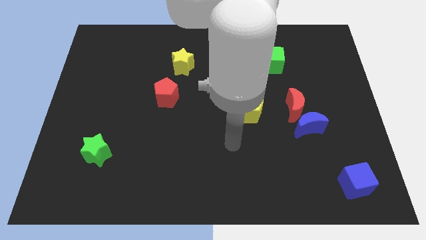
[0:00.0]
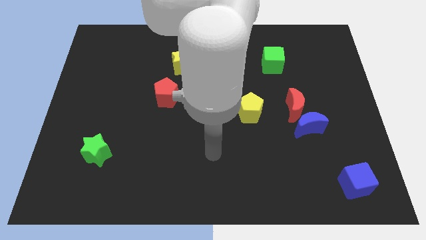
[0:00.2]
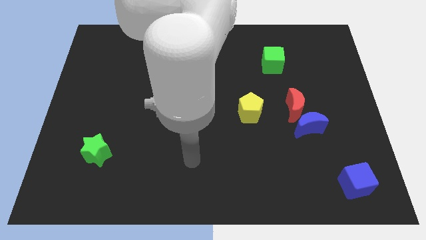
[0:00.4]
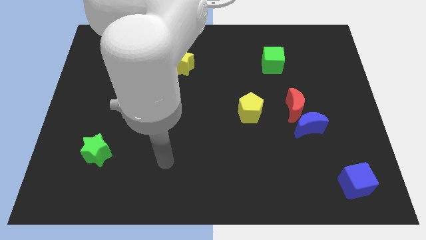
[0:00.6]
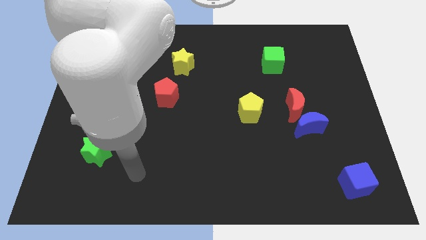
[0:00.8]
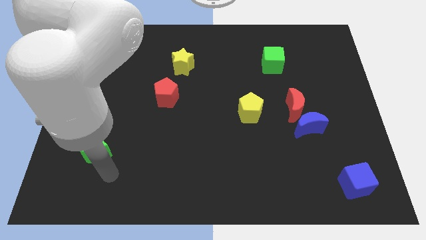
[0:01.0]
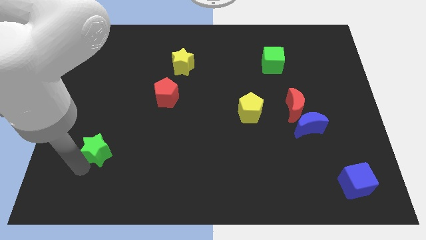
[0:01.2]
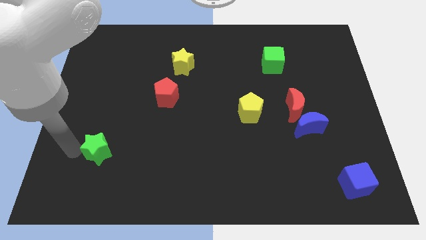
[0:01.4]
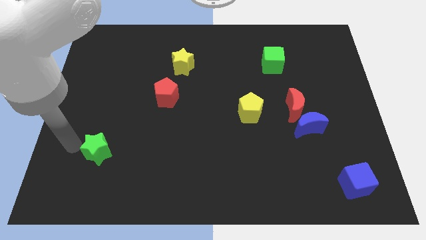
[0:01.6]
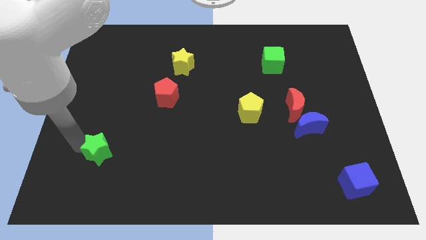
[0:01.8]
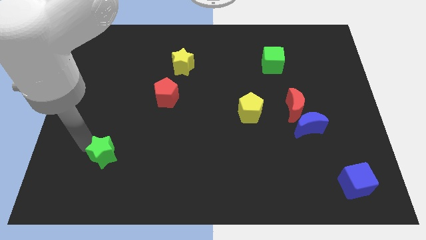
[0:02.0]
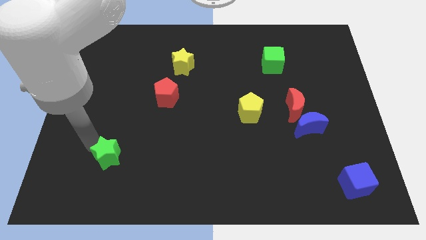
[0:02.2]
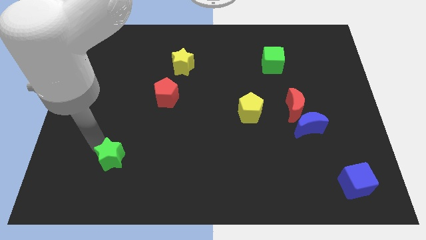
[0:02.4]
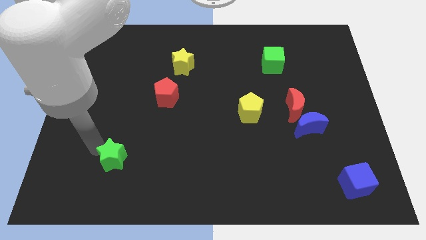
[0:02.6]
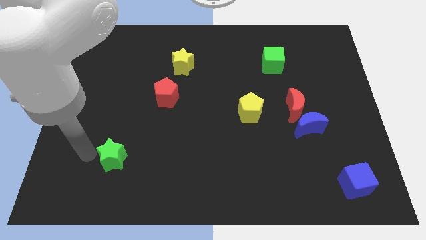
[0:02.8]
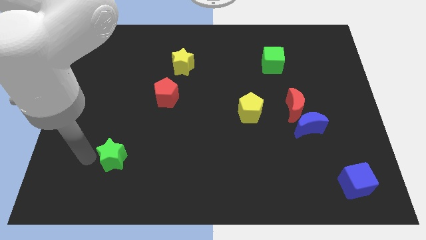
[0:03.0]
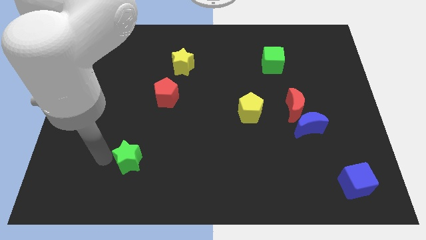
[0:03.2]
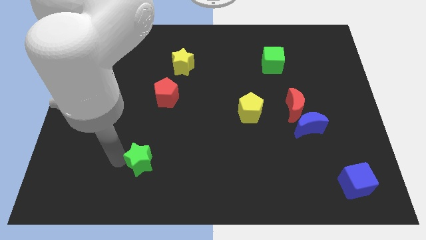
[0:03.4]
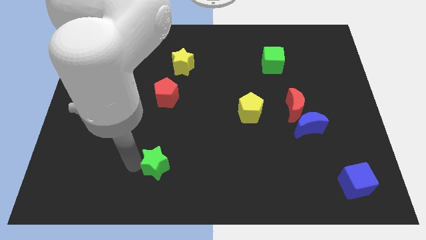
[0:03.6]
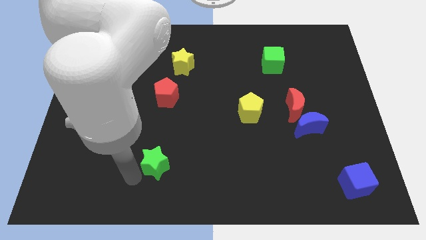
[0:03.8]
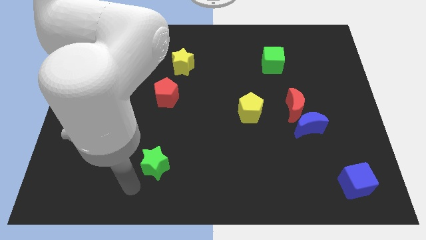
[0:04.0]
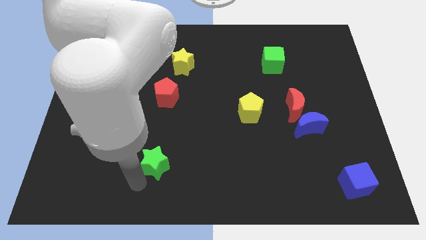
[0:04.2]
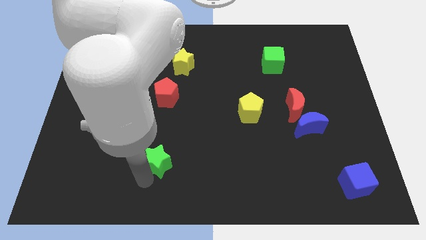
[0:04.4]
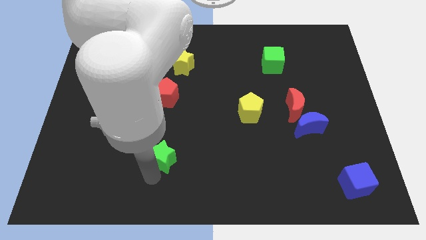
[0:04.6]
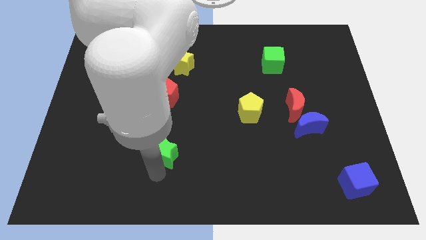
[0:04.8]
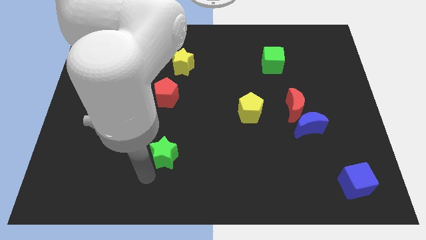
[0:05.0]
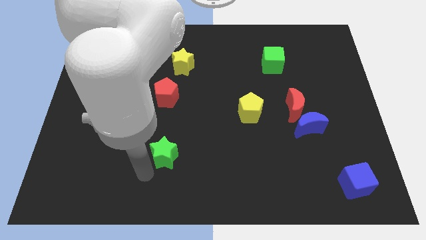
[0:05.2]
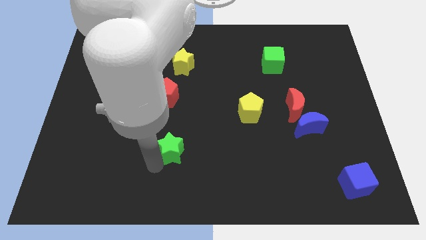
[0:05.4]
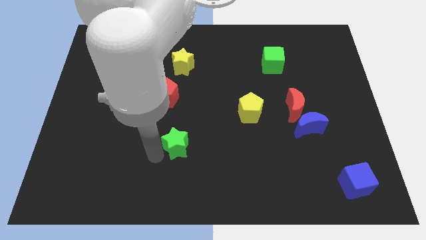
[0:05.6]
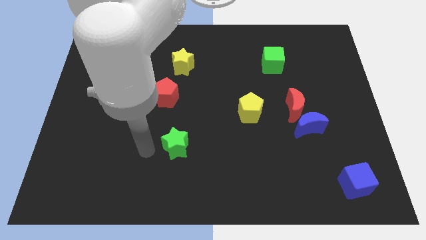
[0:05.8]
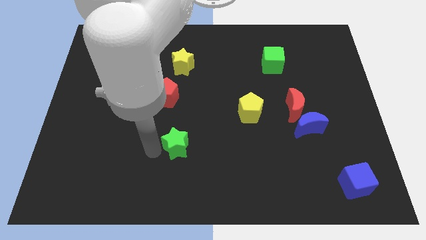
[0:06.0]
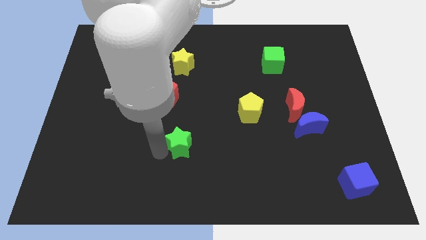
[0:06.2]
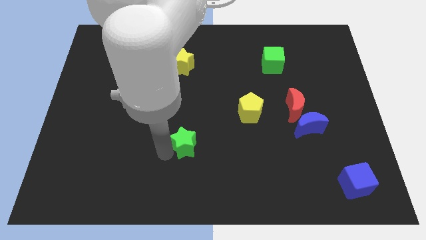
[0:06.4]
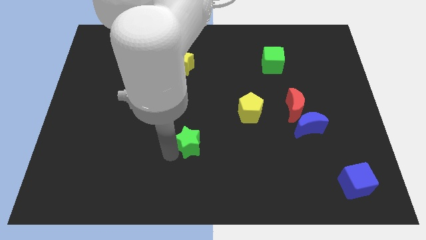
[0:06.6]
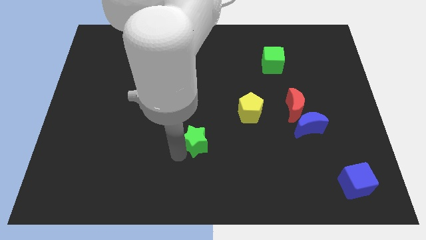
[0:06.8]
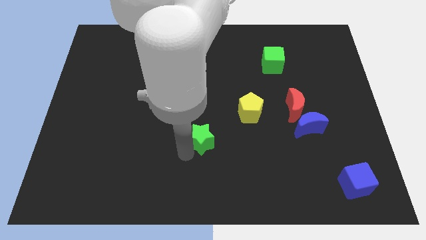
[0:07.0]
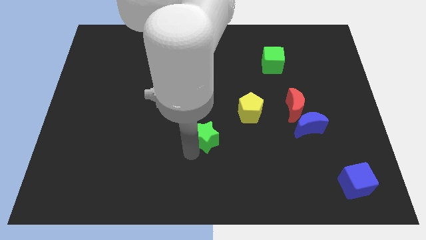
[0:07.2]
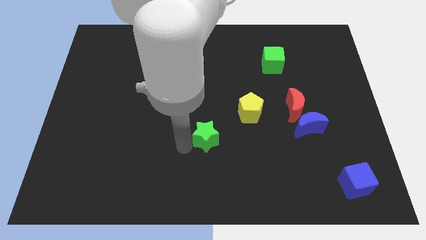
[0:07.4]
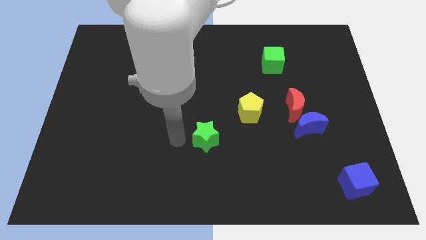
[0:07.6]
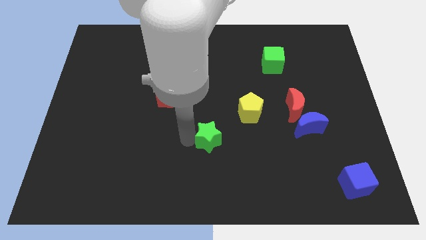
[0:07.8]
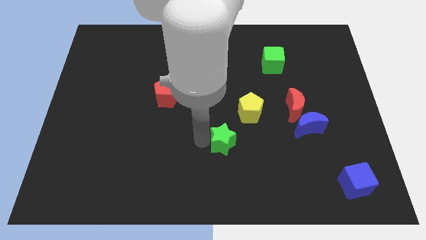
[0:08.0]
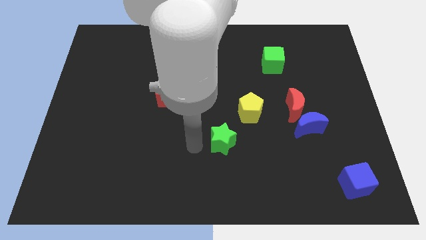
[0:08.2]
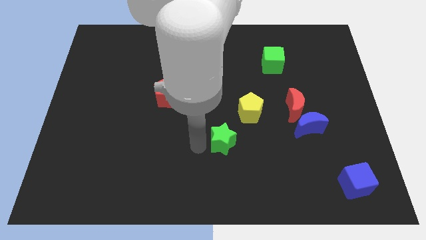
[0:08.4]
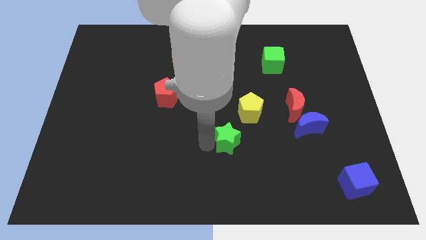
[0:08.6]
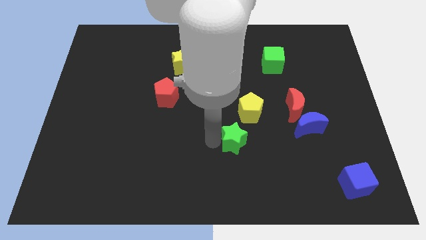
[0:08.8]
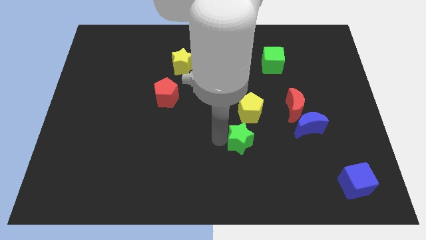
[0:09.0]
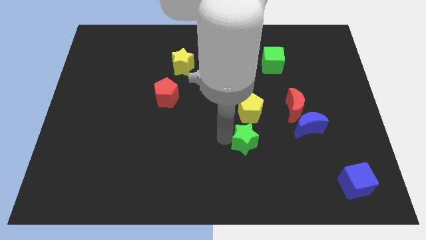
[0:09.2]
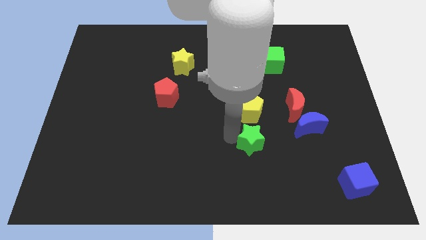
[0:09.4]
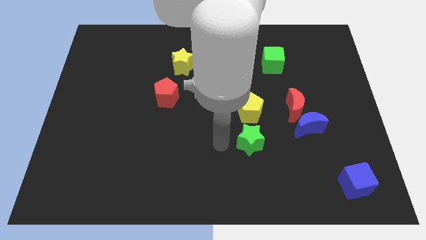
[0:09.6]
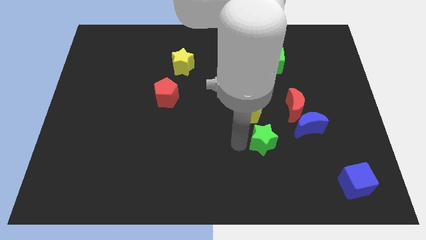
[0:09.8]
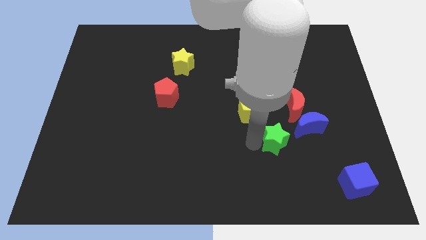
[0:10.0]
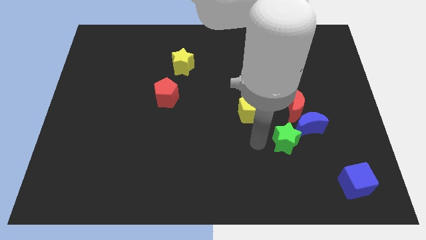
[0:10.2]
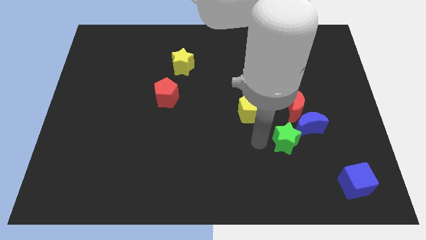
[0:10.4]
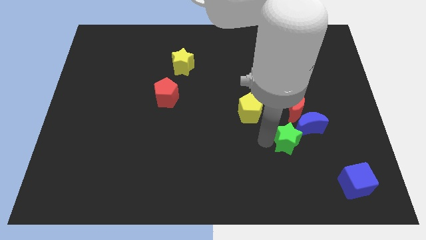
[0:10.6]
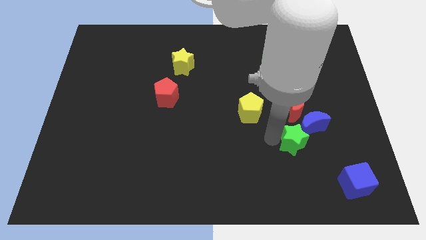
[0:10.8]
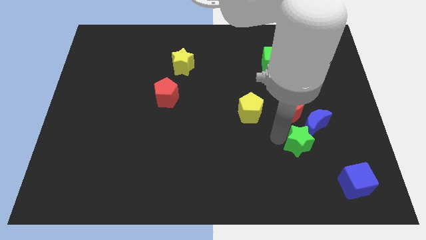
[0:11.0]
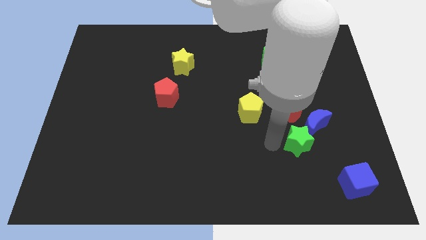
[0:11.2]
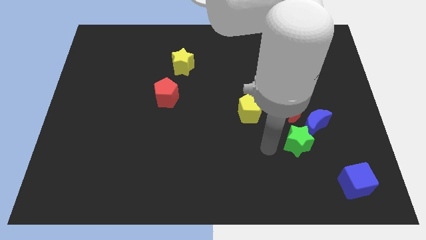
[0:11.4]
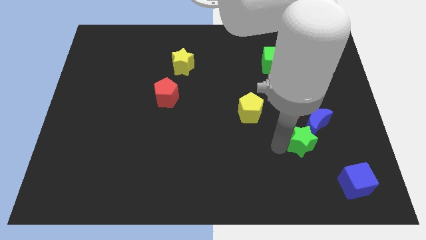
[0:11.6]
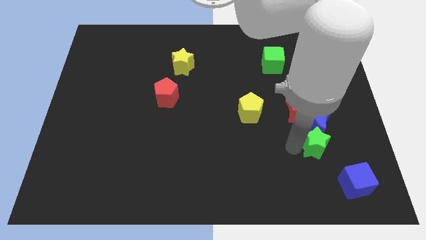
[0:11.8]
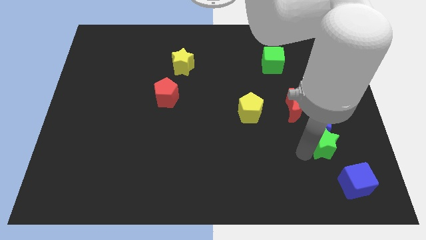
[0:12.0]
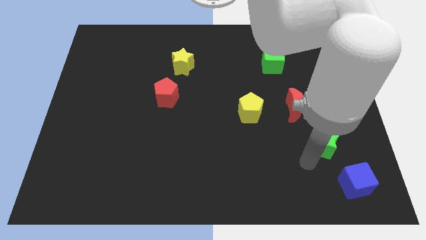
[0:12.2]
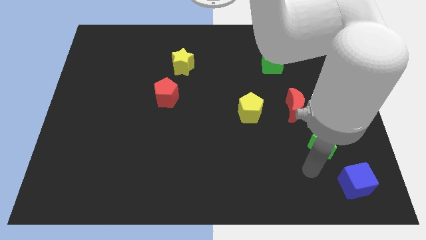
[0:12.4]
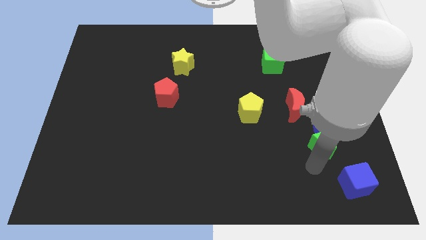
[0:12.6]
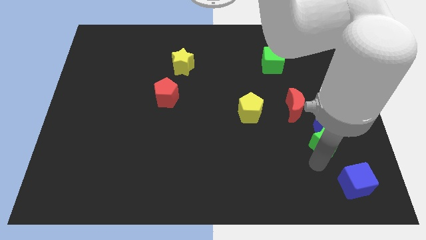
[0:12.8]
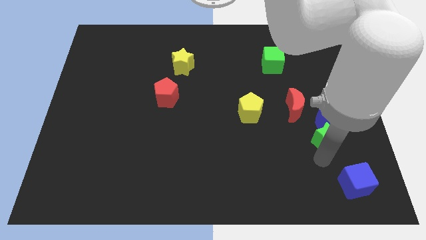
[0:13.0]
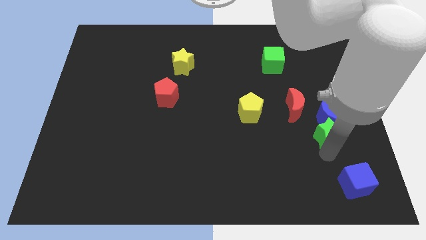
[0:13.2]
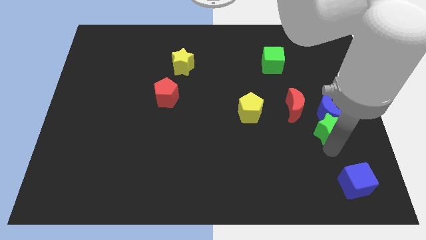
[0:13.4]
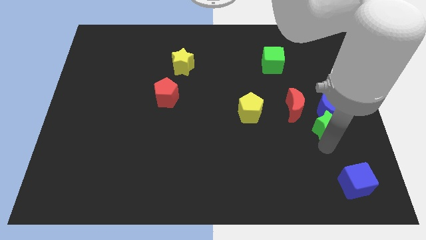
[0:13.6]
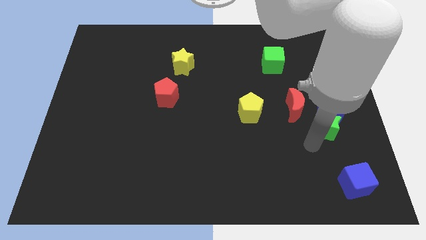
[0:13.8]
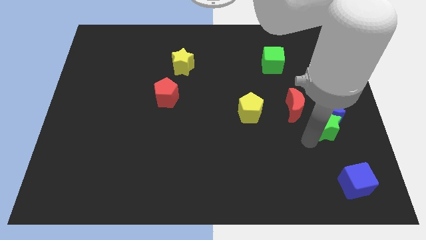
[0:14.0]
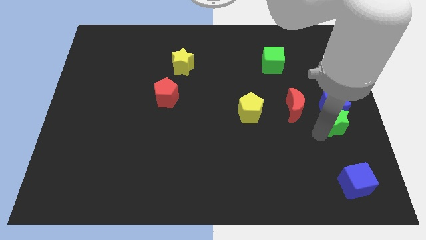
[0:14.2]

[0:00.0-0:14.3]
slide the green star to the right side of the board
